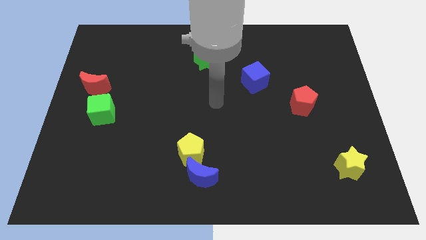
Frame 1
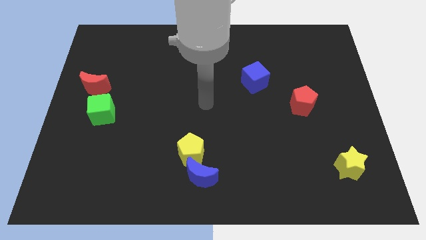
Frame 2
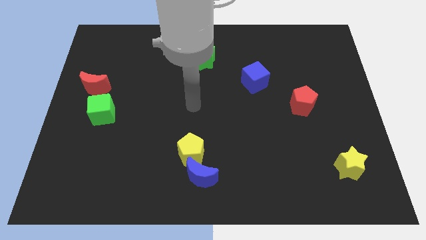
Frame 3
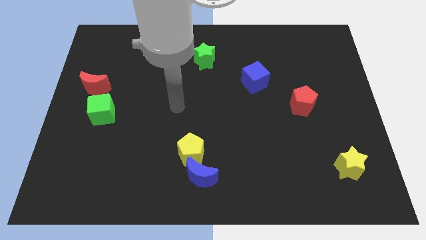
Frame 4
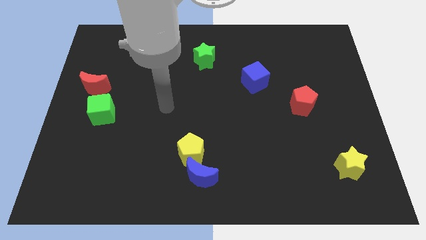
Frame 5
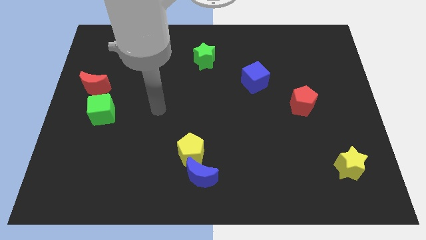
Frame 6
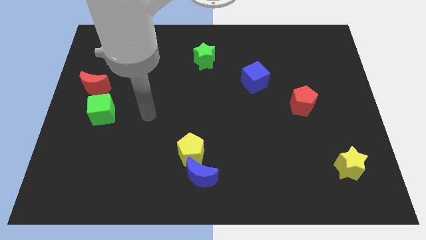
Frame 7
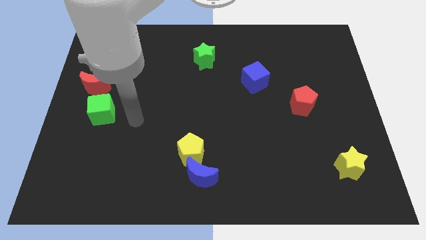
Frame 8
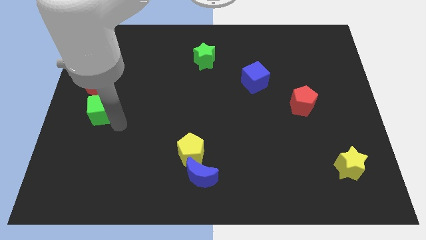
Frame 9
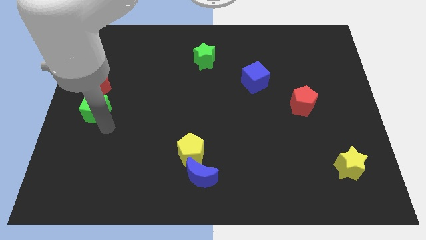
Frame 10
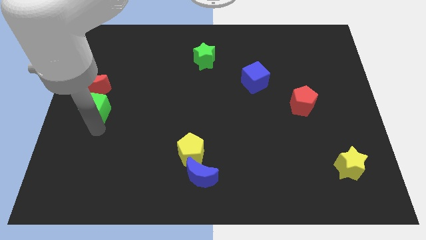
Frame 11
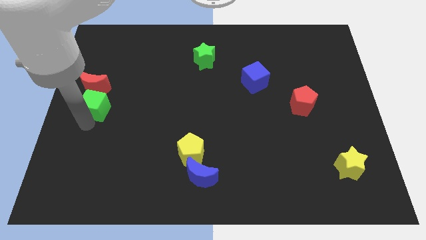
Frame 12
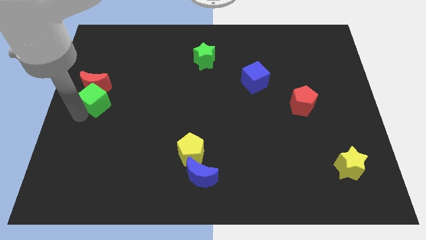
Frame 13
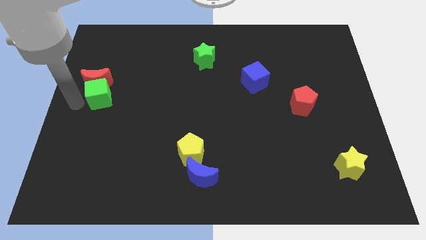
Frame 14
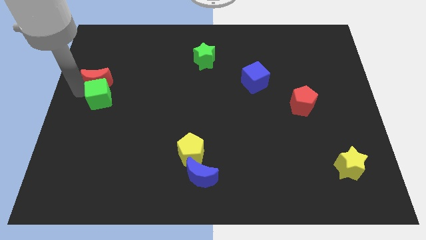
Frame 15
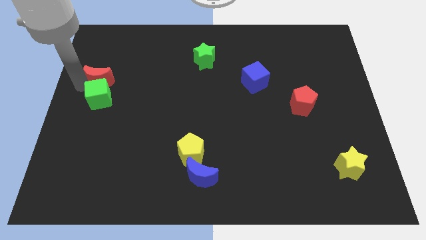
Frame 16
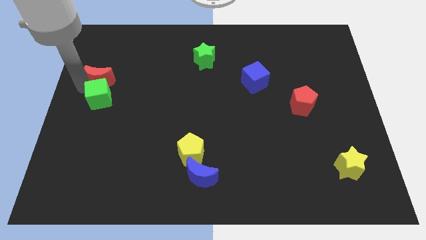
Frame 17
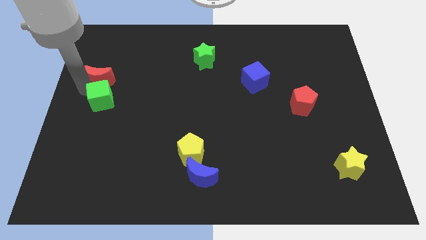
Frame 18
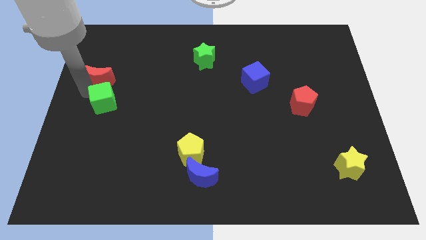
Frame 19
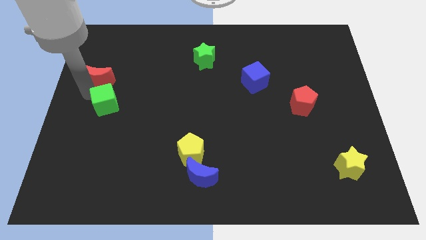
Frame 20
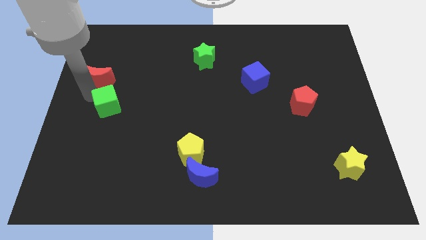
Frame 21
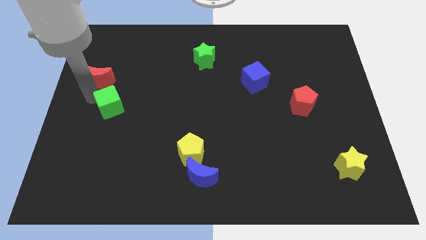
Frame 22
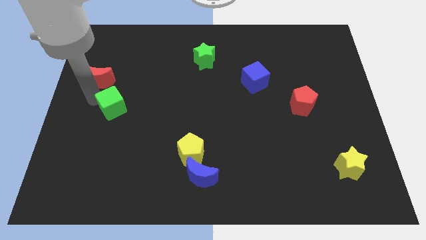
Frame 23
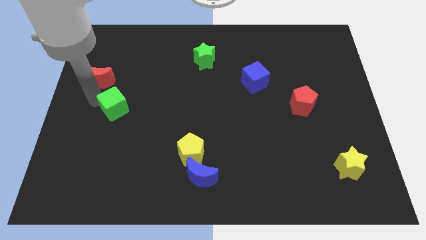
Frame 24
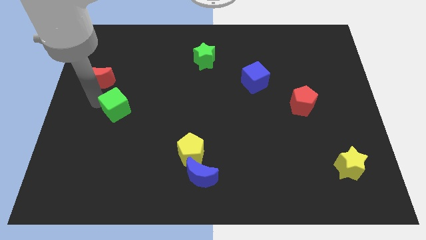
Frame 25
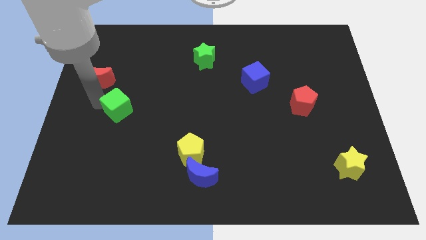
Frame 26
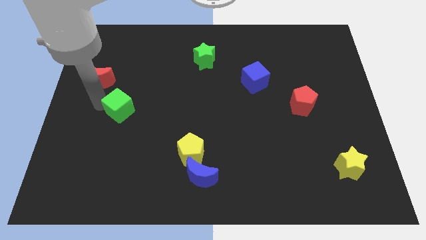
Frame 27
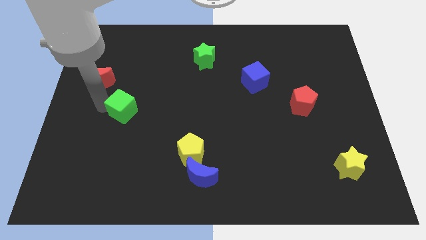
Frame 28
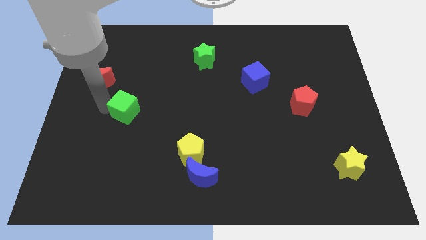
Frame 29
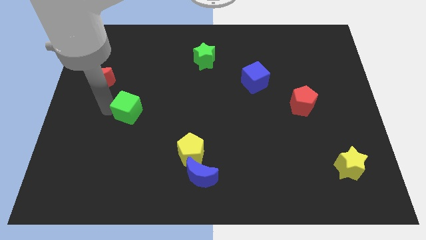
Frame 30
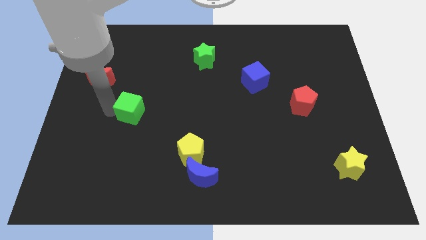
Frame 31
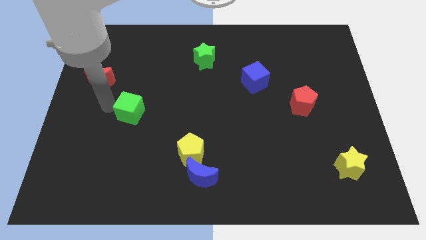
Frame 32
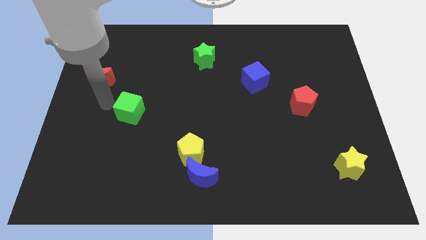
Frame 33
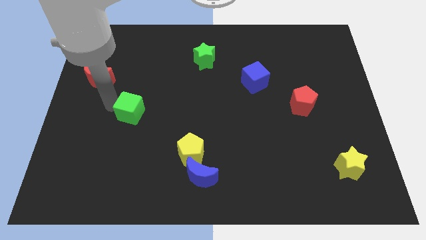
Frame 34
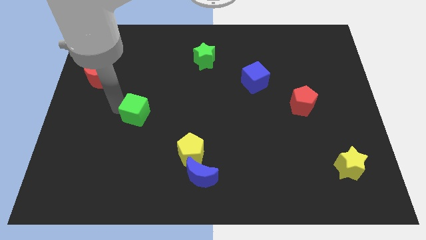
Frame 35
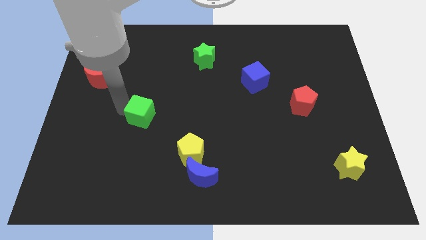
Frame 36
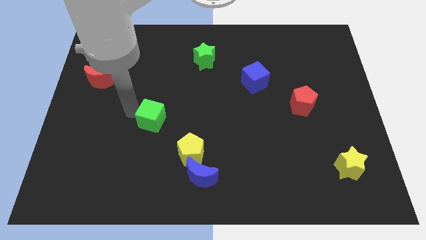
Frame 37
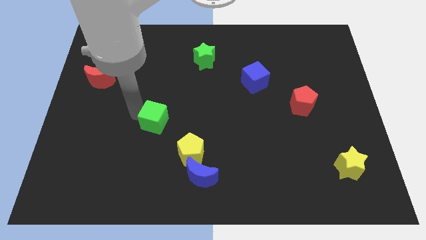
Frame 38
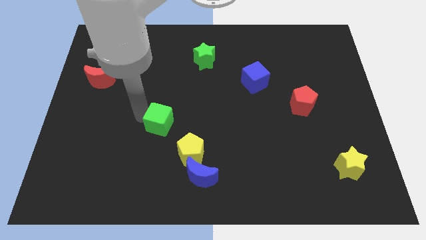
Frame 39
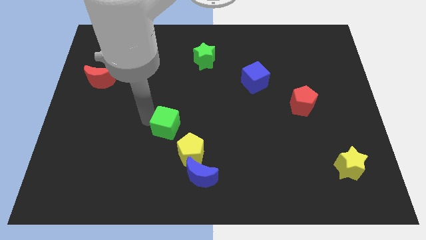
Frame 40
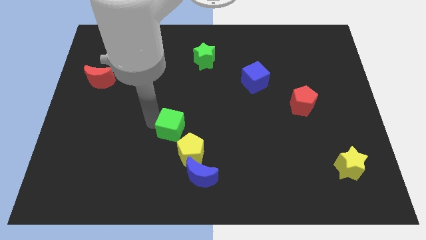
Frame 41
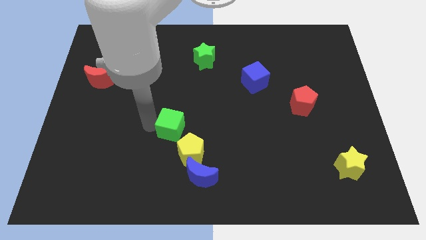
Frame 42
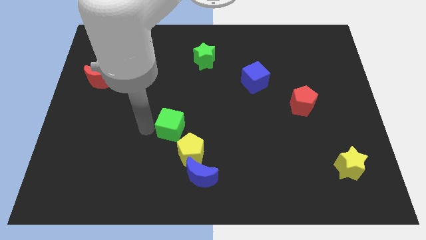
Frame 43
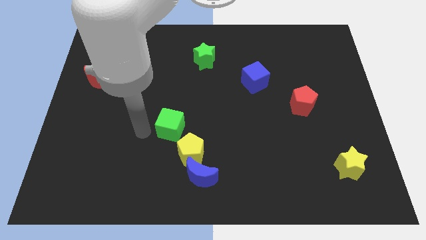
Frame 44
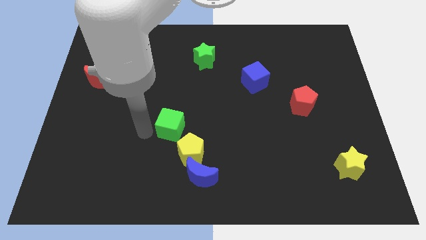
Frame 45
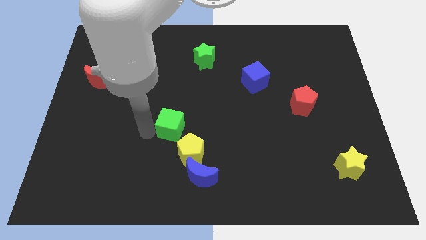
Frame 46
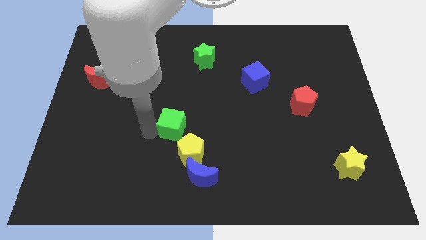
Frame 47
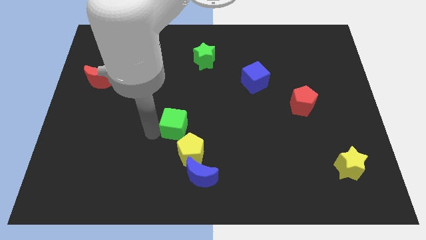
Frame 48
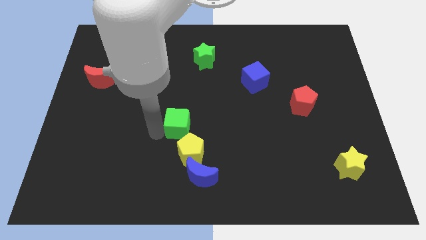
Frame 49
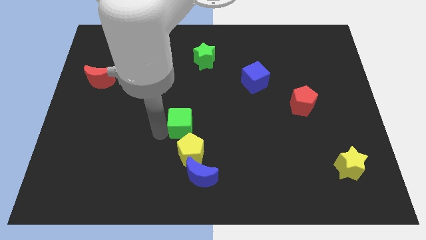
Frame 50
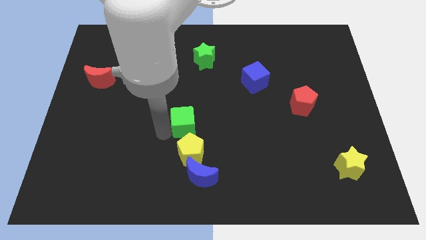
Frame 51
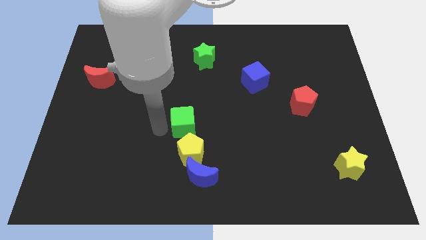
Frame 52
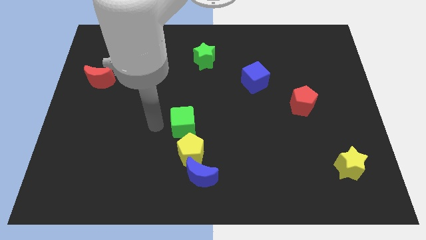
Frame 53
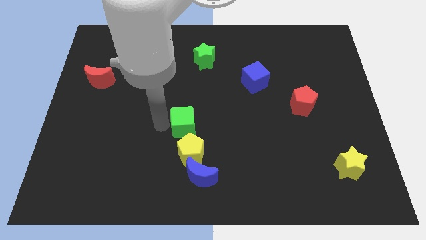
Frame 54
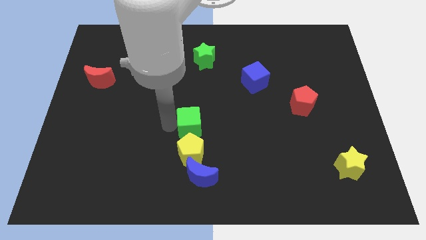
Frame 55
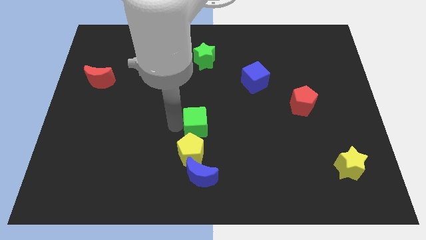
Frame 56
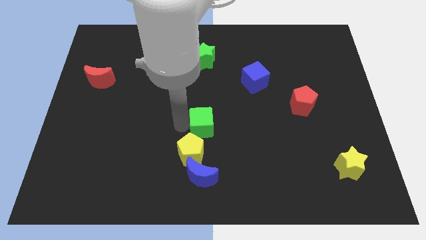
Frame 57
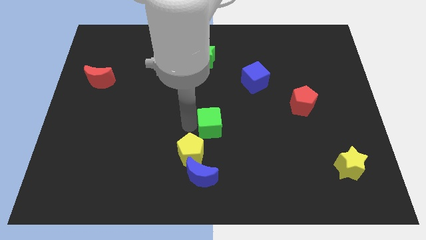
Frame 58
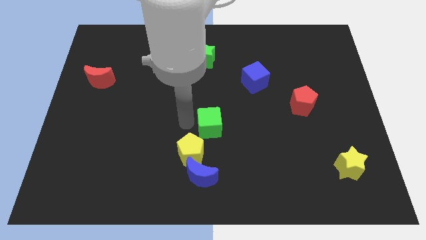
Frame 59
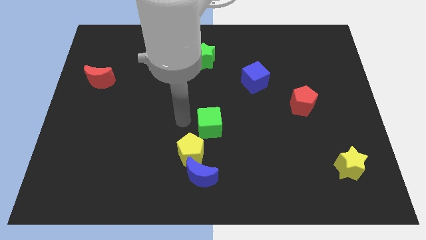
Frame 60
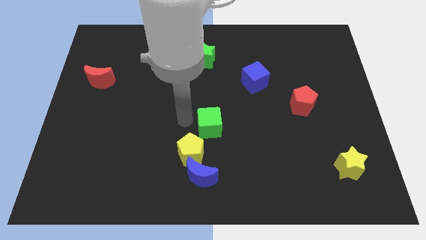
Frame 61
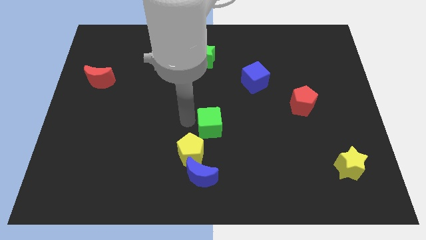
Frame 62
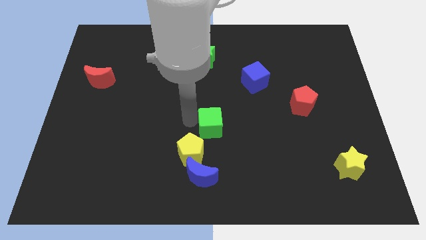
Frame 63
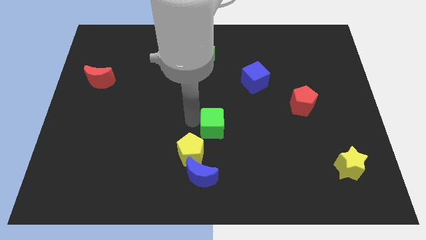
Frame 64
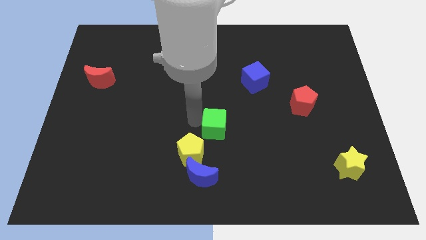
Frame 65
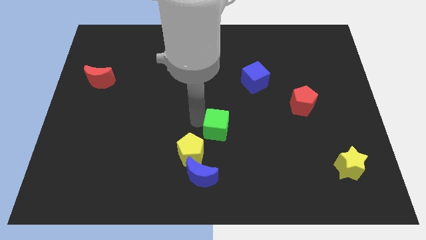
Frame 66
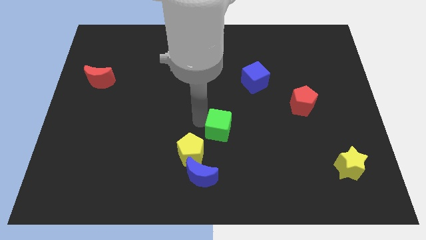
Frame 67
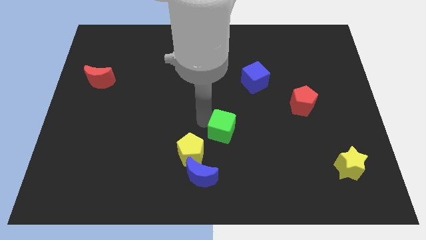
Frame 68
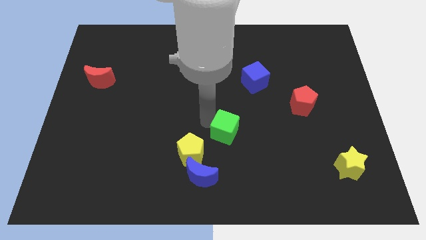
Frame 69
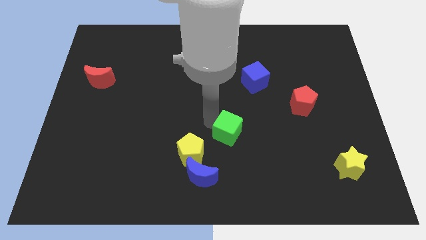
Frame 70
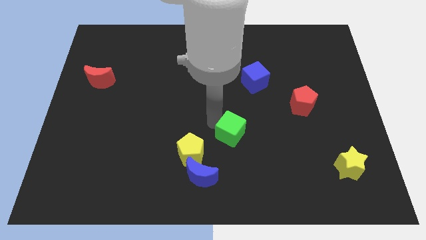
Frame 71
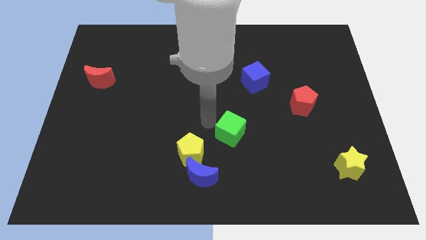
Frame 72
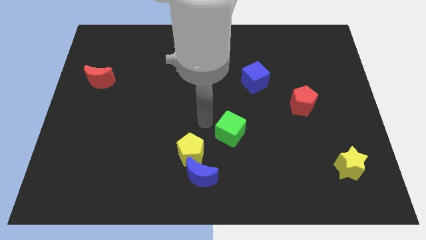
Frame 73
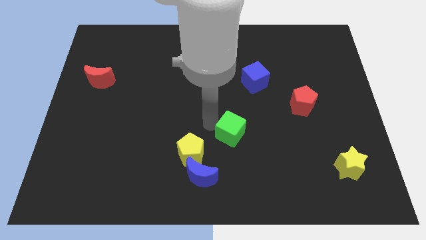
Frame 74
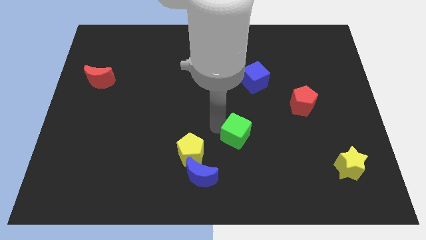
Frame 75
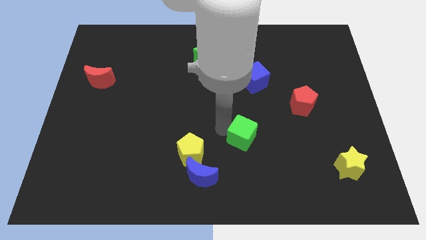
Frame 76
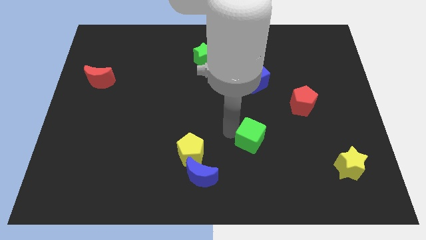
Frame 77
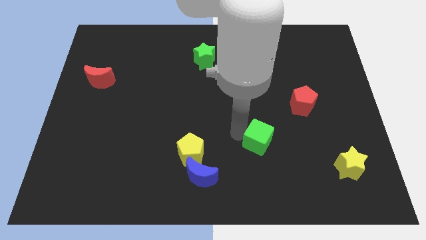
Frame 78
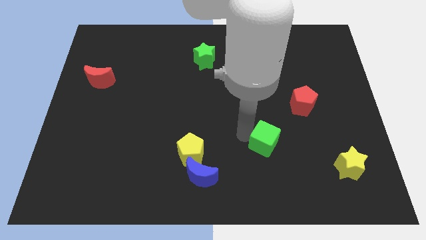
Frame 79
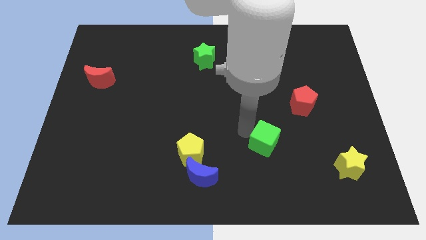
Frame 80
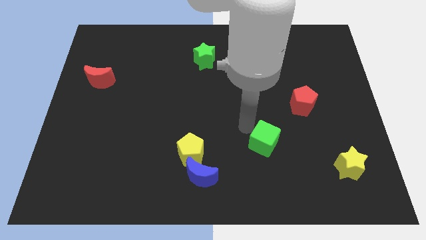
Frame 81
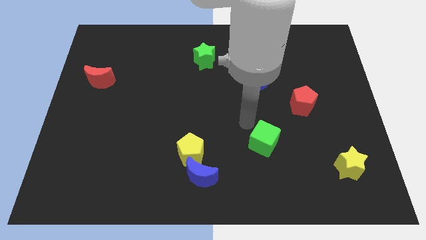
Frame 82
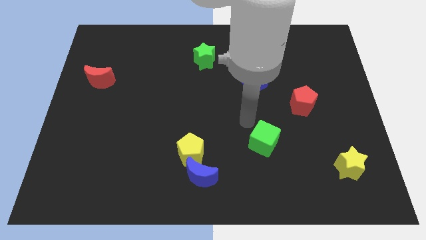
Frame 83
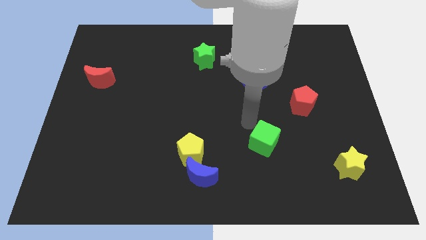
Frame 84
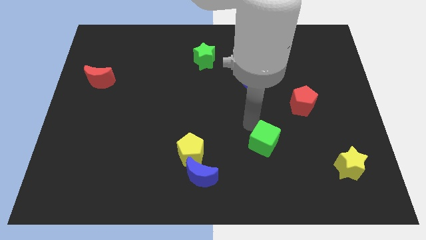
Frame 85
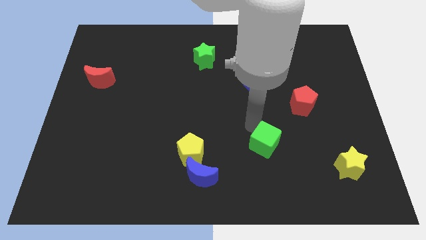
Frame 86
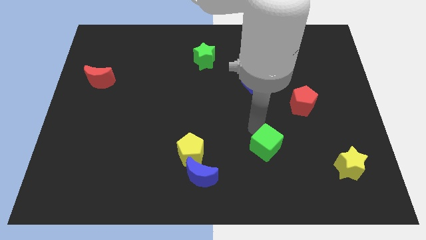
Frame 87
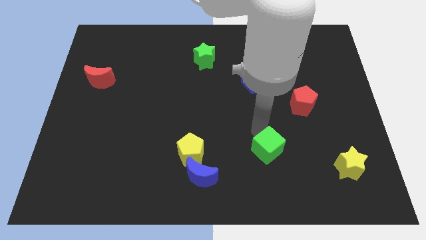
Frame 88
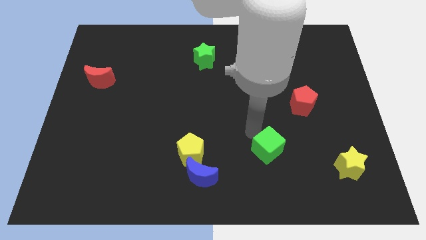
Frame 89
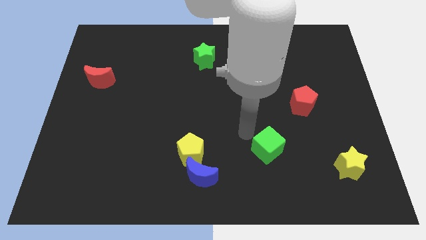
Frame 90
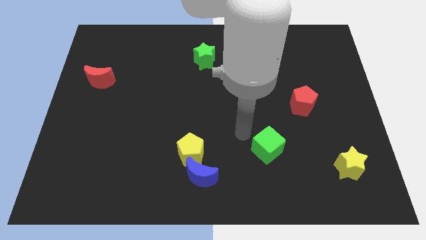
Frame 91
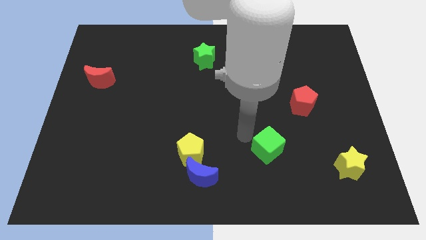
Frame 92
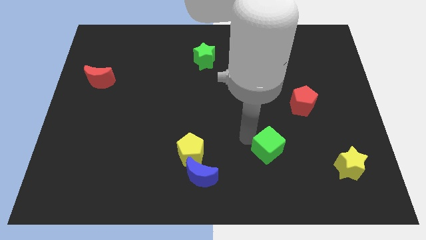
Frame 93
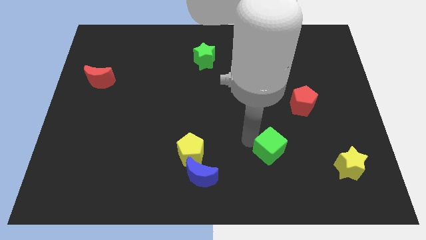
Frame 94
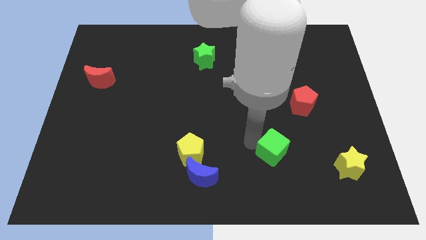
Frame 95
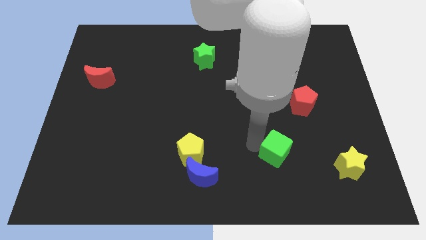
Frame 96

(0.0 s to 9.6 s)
slide the green cube to the left side of the yellow star
